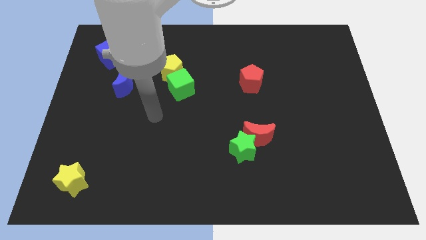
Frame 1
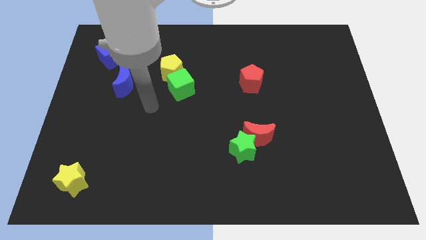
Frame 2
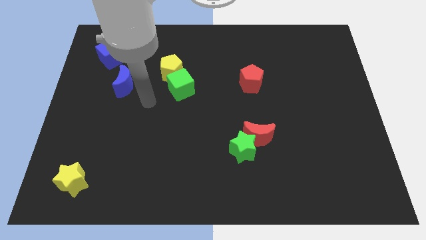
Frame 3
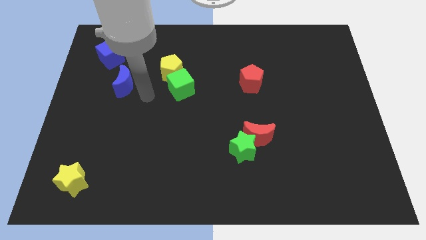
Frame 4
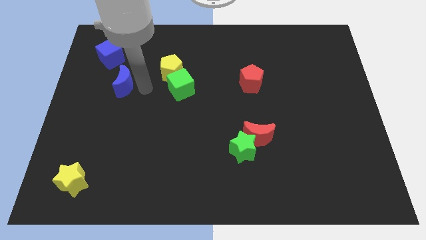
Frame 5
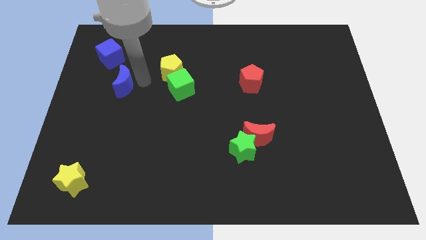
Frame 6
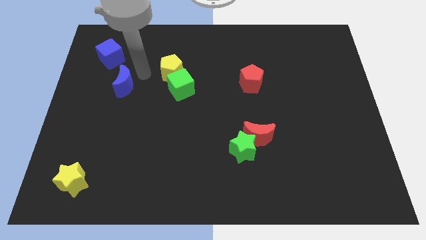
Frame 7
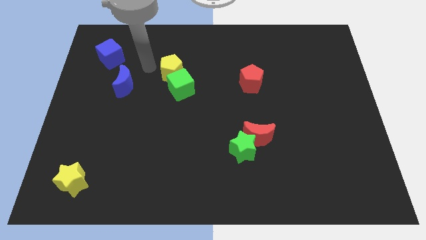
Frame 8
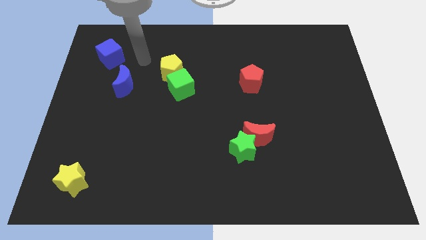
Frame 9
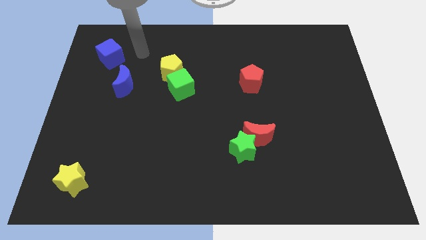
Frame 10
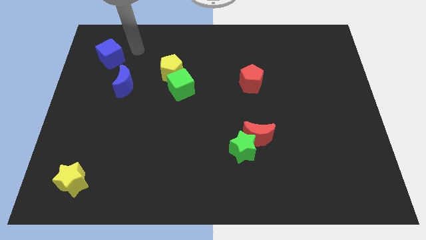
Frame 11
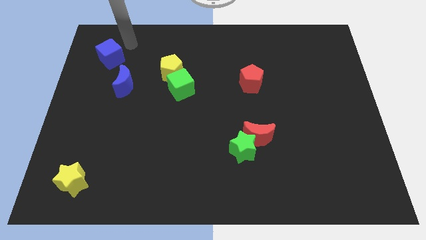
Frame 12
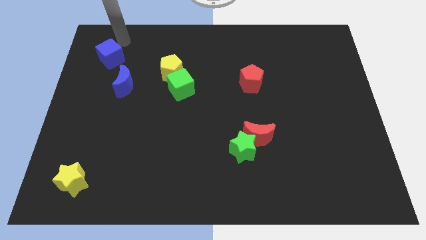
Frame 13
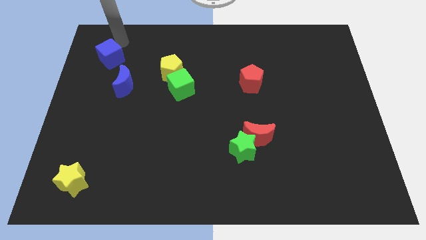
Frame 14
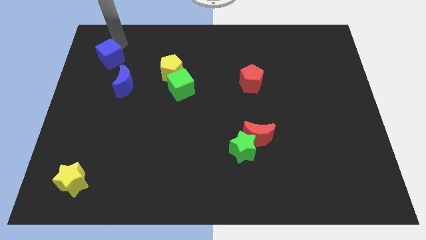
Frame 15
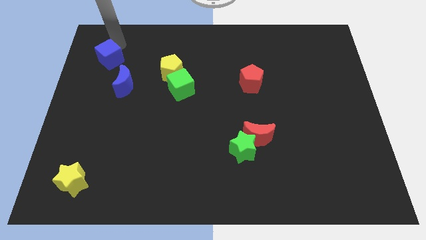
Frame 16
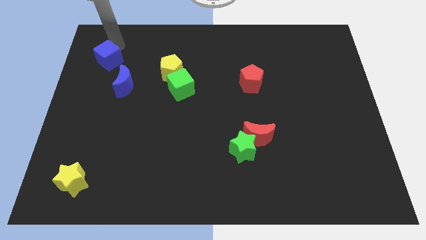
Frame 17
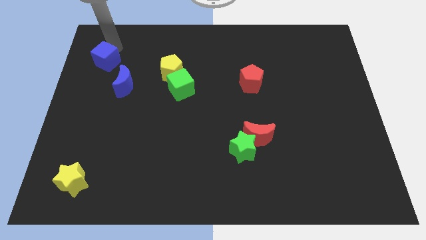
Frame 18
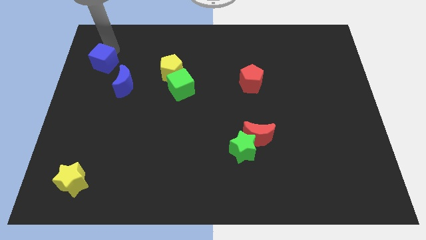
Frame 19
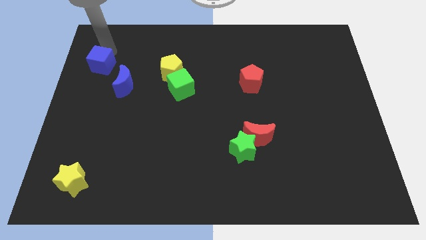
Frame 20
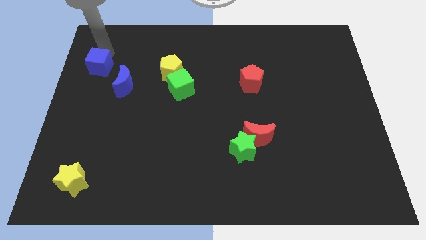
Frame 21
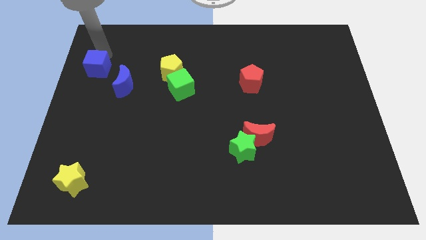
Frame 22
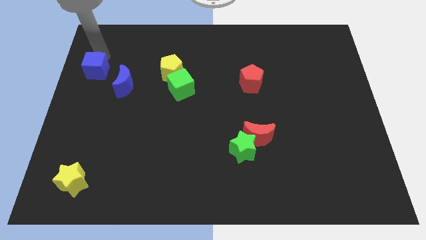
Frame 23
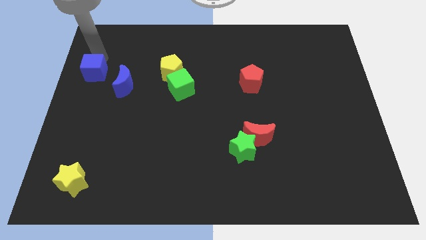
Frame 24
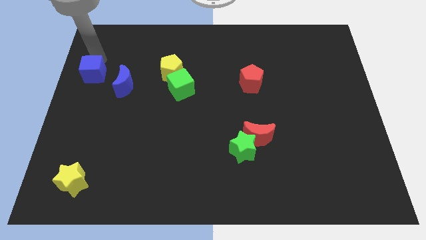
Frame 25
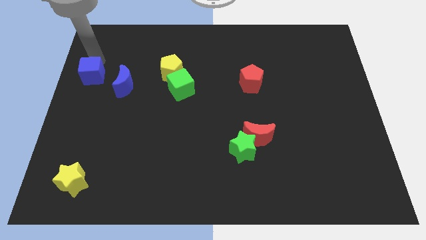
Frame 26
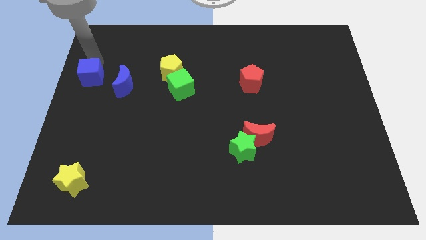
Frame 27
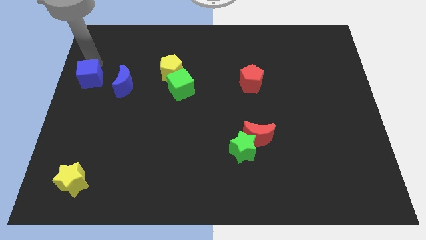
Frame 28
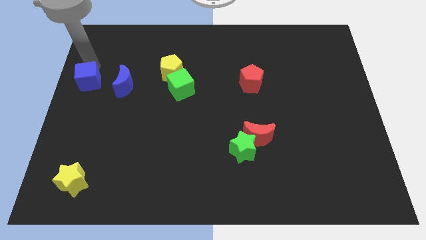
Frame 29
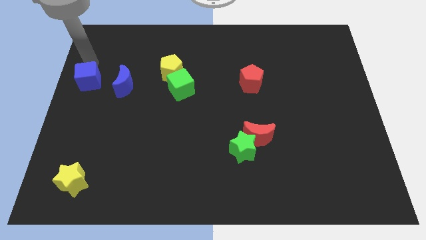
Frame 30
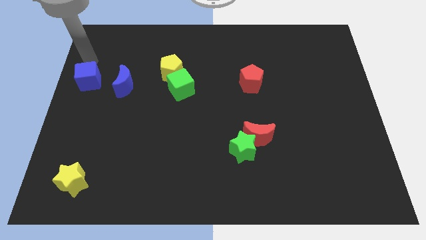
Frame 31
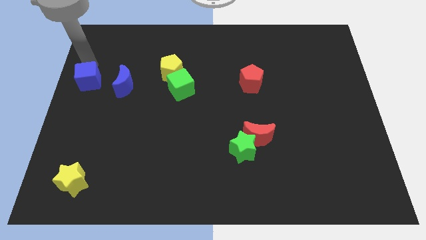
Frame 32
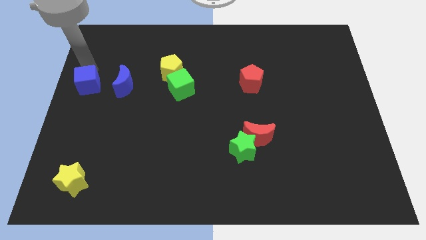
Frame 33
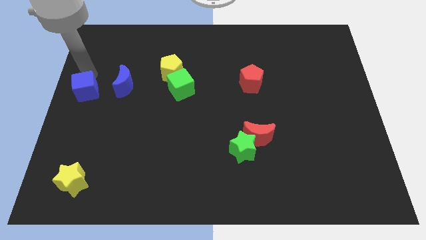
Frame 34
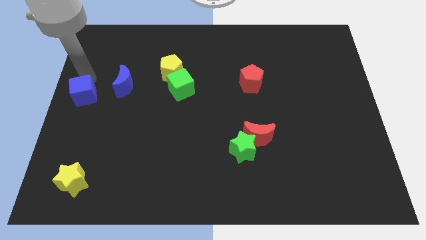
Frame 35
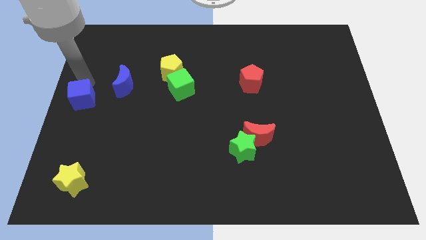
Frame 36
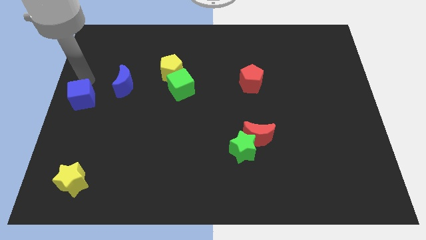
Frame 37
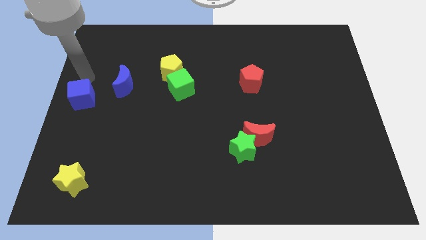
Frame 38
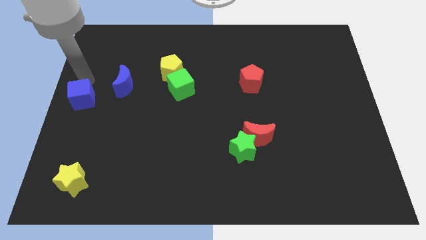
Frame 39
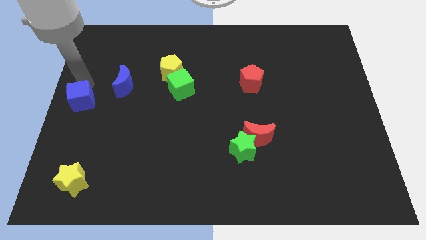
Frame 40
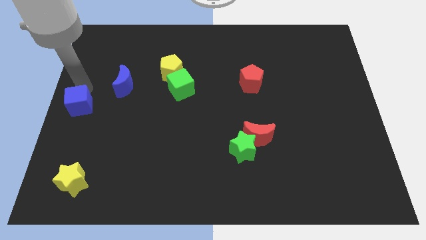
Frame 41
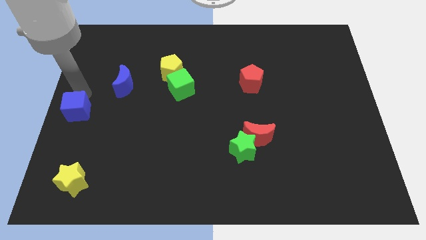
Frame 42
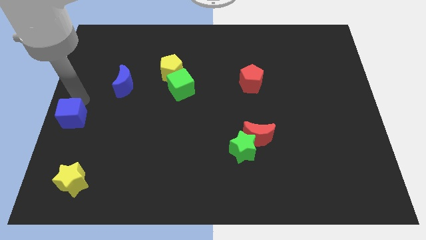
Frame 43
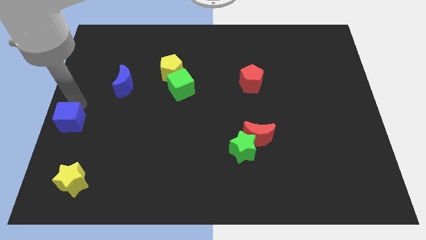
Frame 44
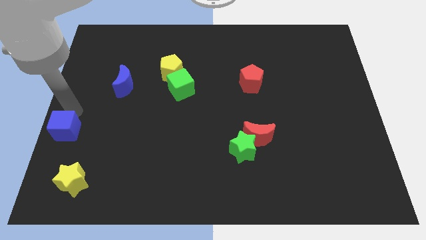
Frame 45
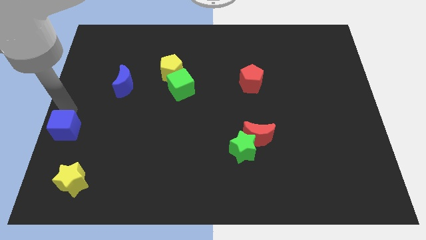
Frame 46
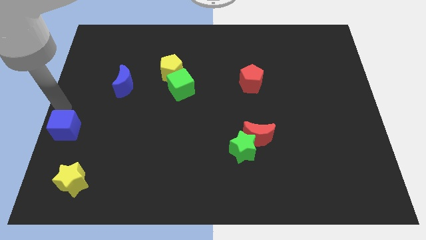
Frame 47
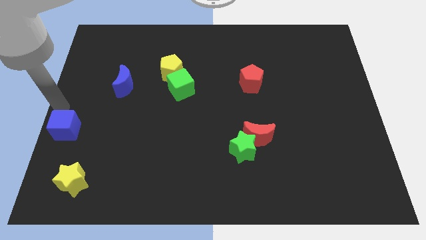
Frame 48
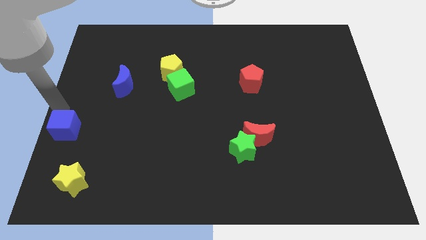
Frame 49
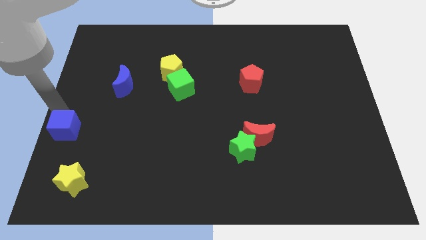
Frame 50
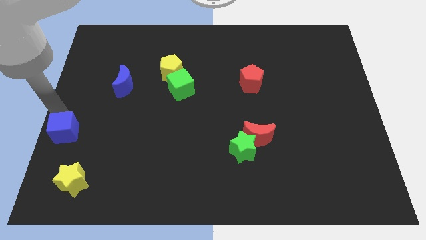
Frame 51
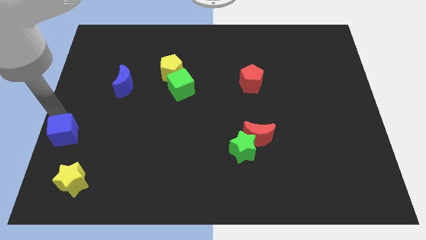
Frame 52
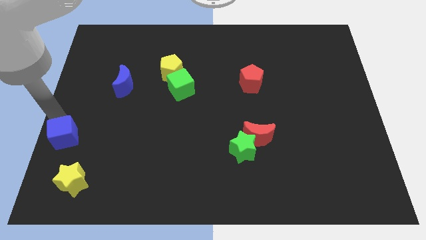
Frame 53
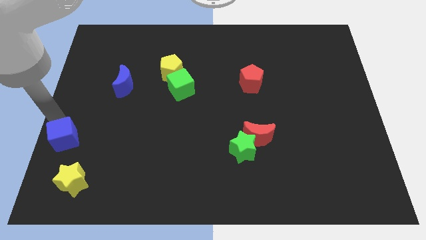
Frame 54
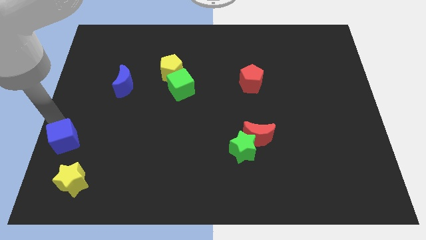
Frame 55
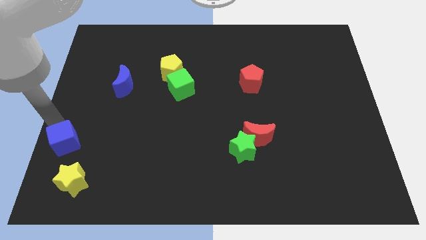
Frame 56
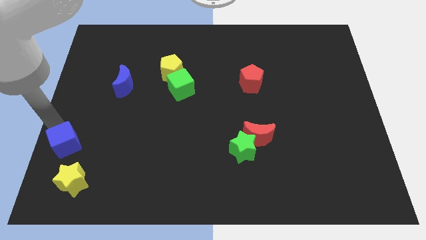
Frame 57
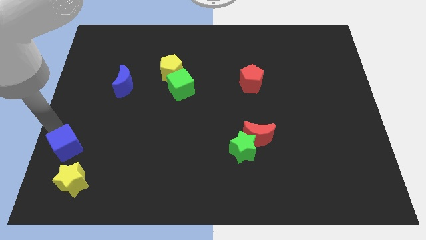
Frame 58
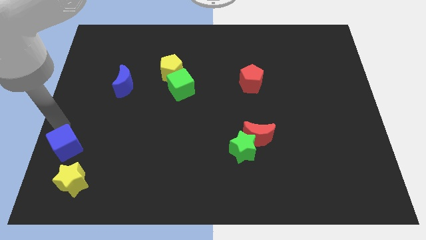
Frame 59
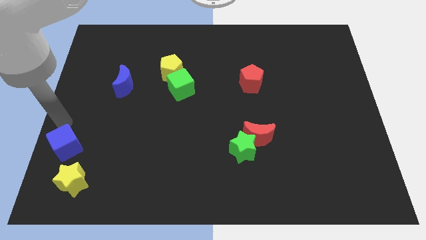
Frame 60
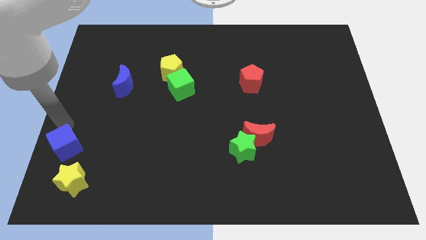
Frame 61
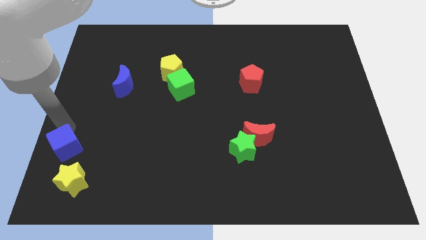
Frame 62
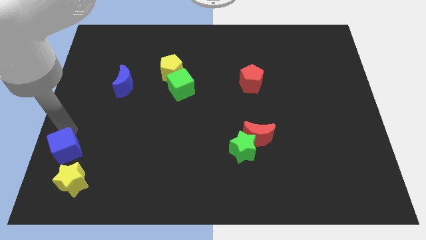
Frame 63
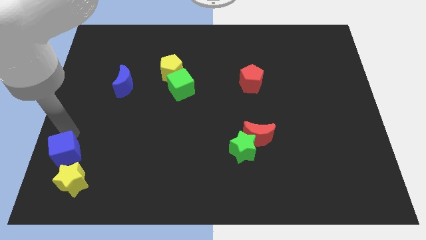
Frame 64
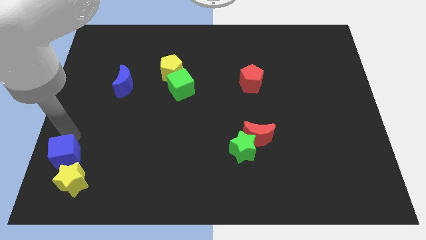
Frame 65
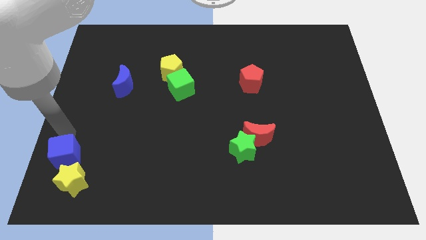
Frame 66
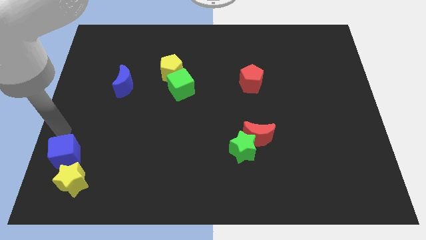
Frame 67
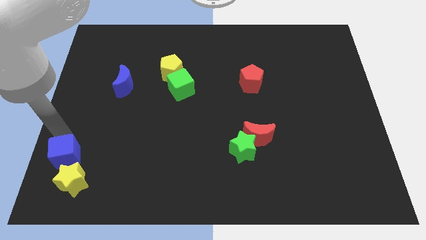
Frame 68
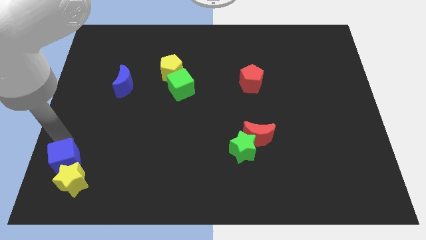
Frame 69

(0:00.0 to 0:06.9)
move the blue cube towards the yellow star
